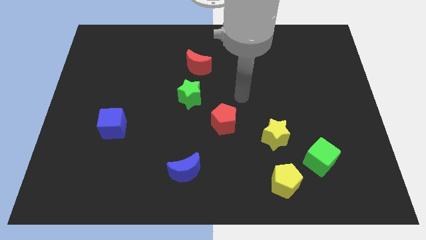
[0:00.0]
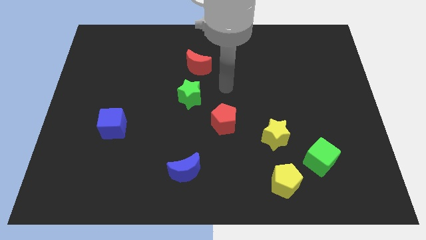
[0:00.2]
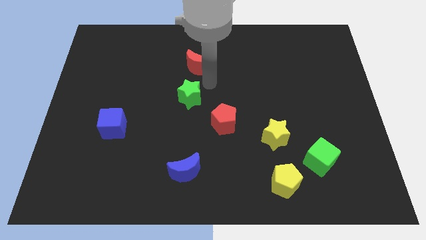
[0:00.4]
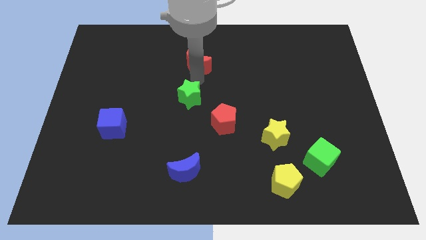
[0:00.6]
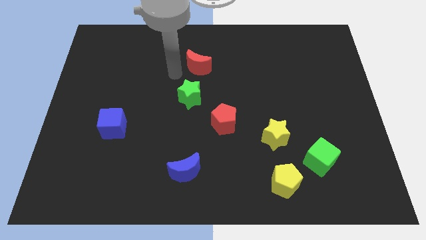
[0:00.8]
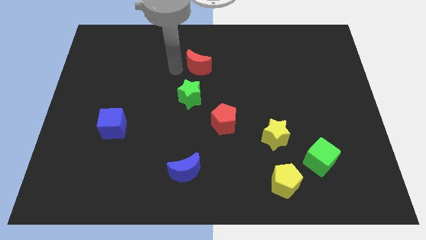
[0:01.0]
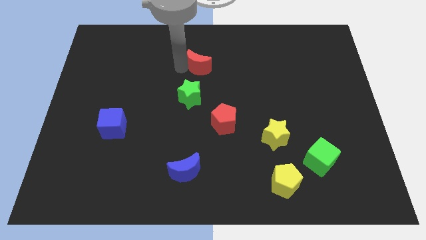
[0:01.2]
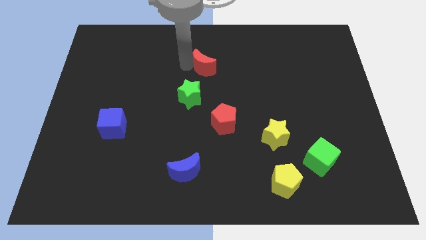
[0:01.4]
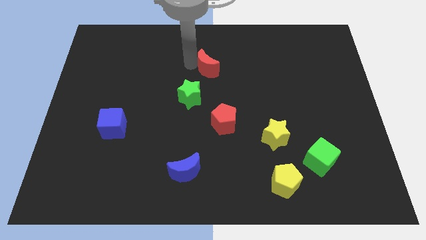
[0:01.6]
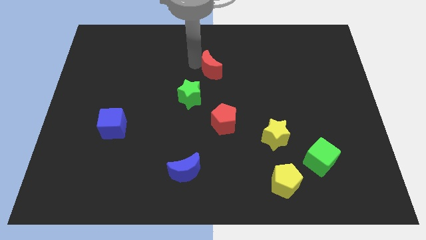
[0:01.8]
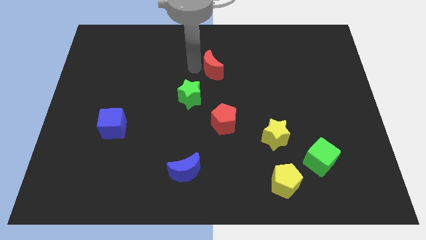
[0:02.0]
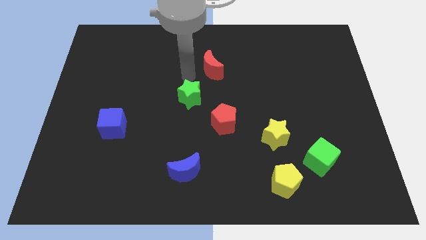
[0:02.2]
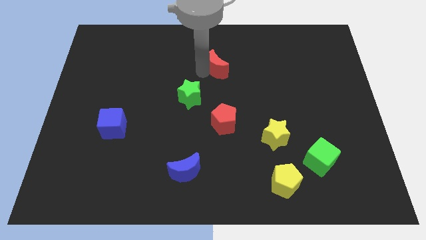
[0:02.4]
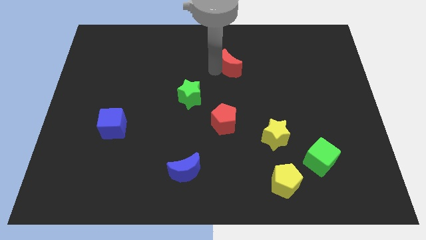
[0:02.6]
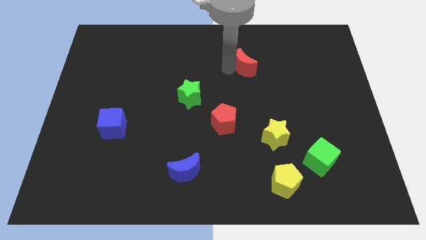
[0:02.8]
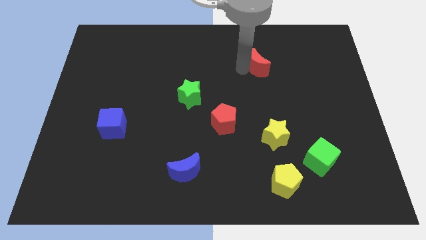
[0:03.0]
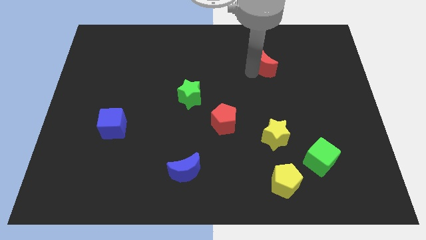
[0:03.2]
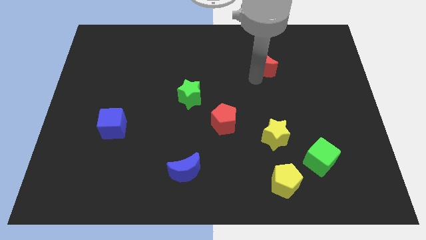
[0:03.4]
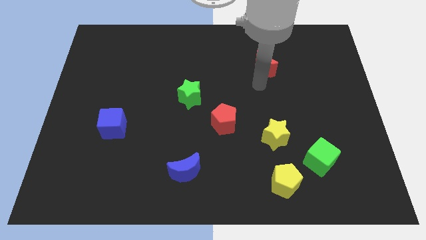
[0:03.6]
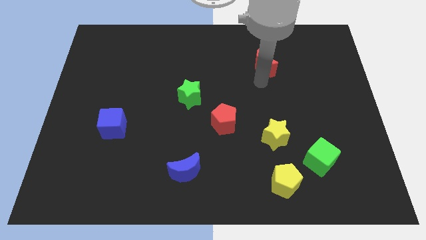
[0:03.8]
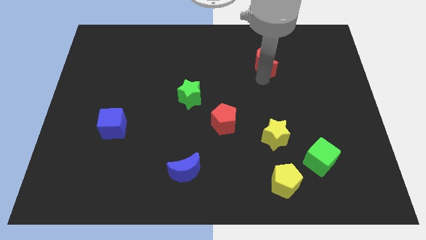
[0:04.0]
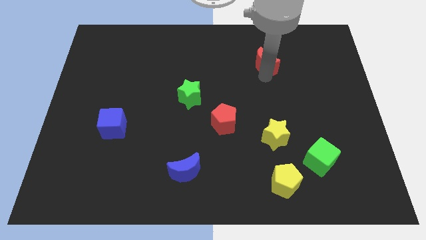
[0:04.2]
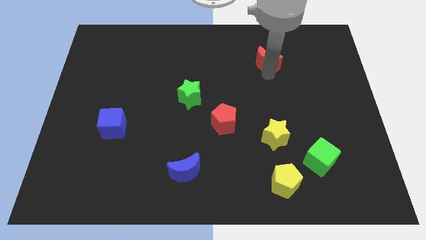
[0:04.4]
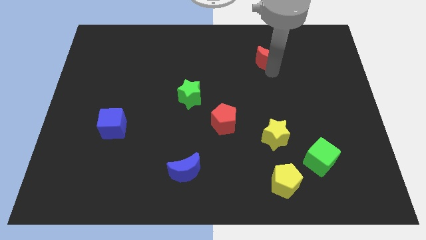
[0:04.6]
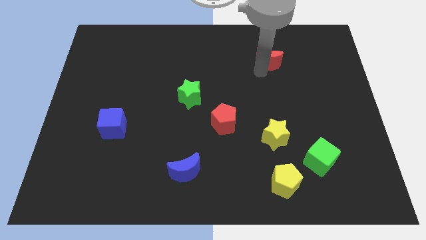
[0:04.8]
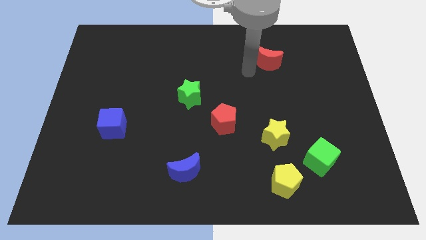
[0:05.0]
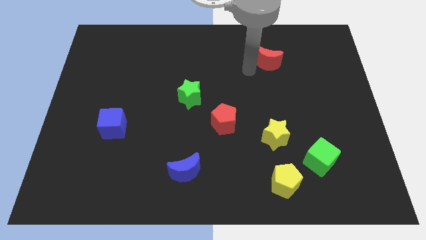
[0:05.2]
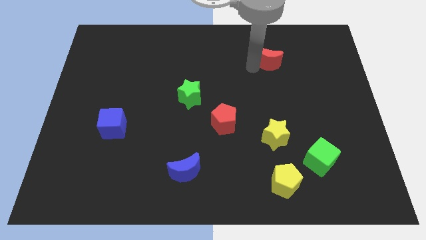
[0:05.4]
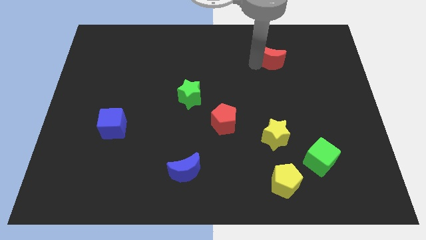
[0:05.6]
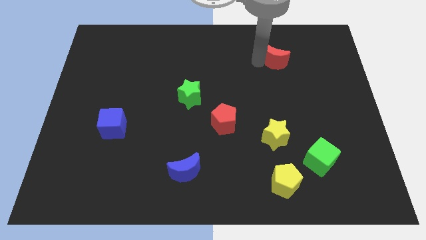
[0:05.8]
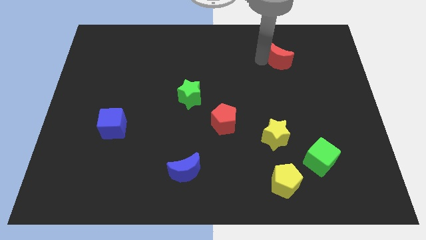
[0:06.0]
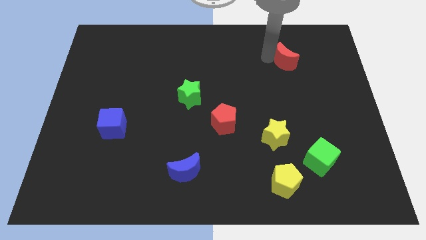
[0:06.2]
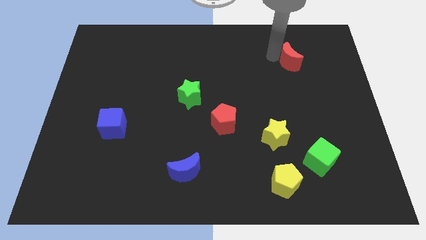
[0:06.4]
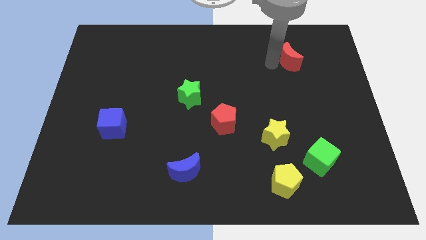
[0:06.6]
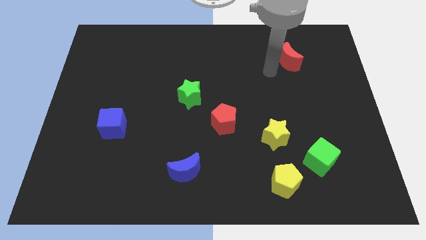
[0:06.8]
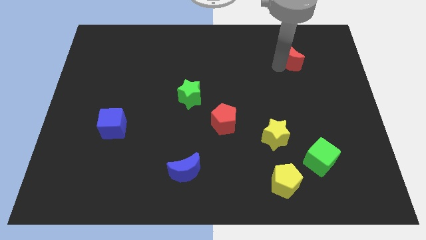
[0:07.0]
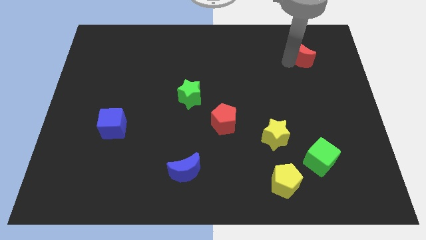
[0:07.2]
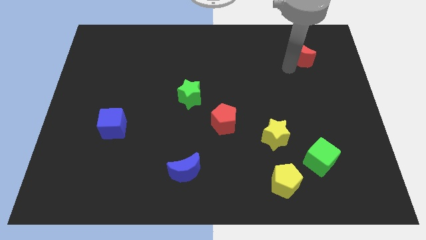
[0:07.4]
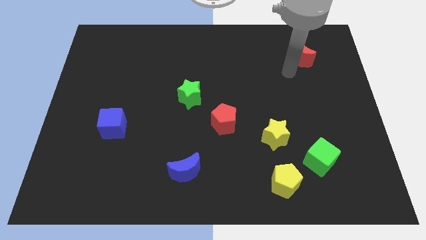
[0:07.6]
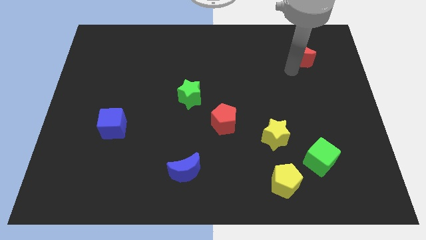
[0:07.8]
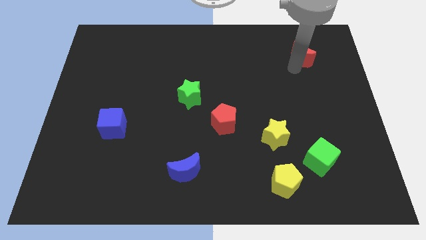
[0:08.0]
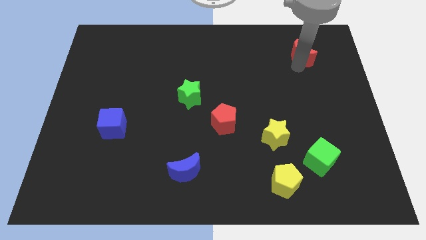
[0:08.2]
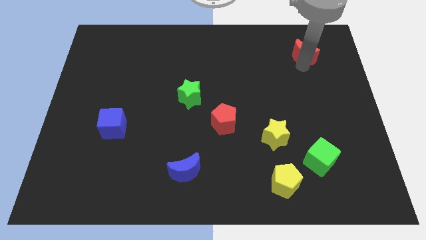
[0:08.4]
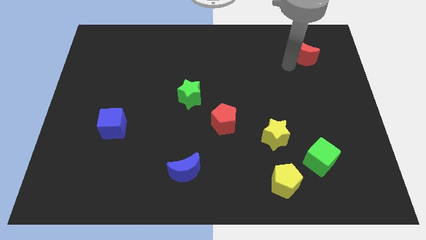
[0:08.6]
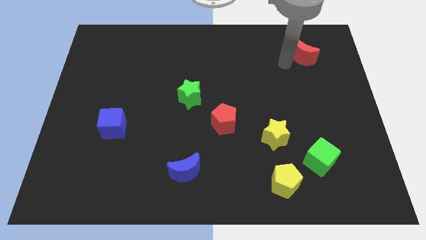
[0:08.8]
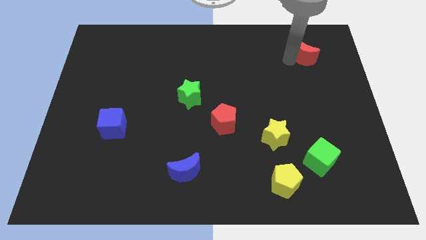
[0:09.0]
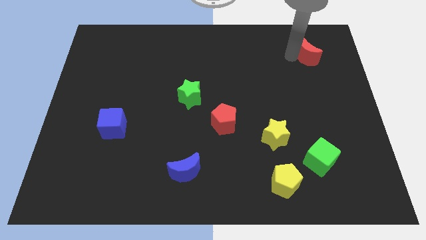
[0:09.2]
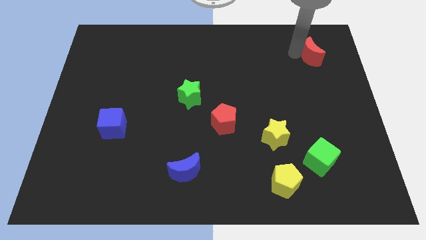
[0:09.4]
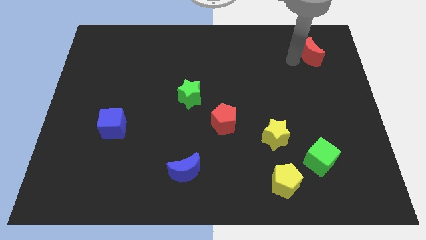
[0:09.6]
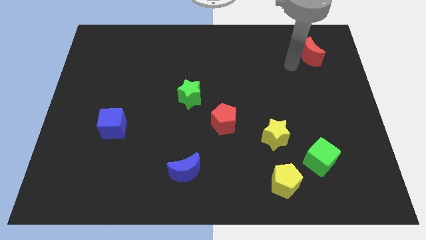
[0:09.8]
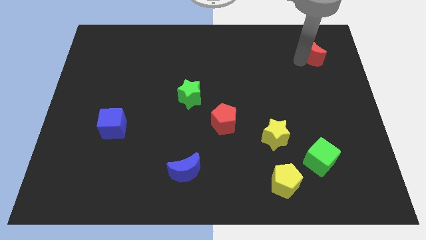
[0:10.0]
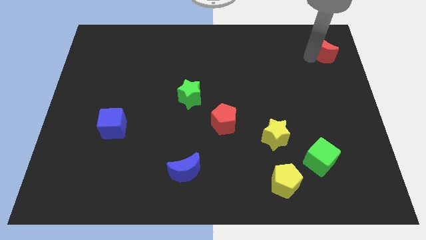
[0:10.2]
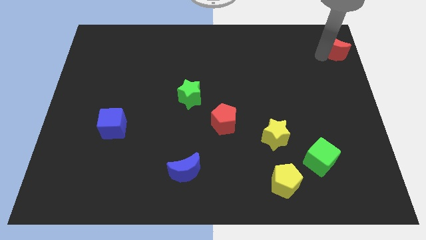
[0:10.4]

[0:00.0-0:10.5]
push the red moon to the upper right corner

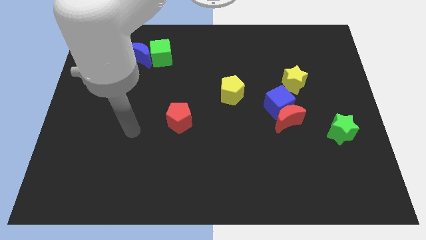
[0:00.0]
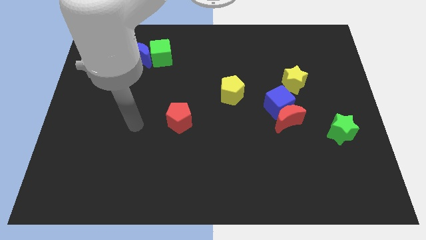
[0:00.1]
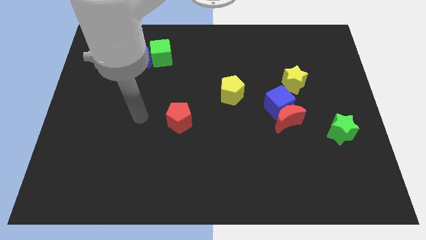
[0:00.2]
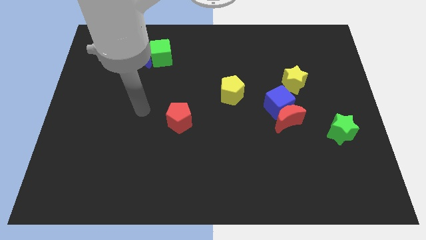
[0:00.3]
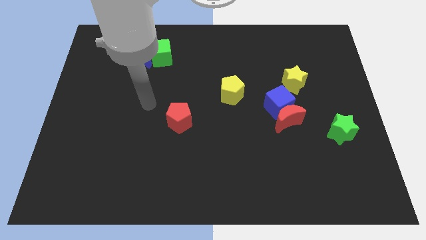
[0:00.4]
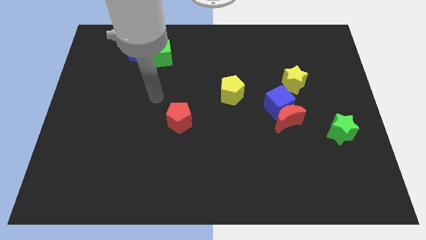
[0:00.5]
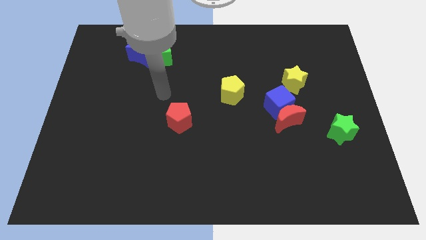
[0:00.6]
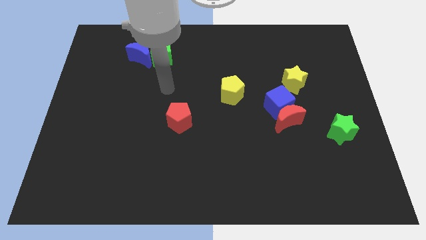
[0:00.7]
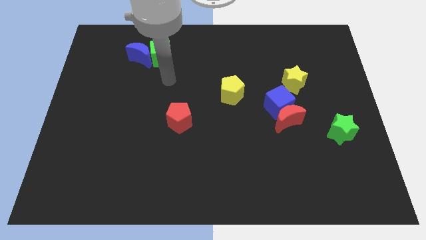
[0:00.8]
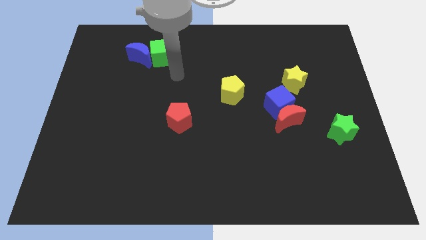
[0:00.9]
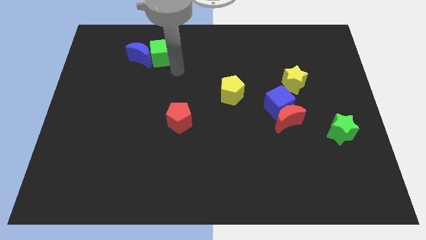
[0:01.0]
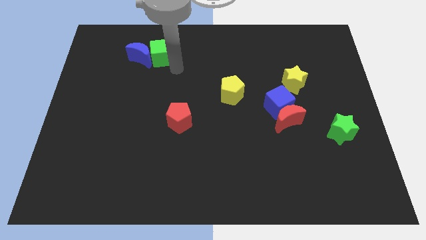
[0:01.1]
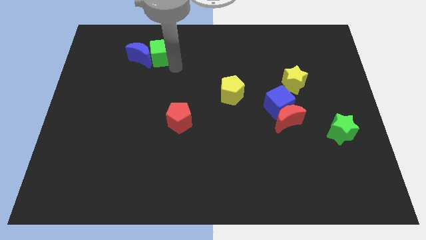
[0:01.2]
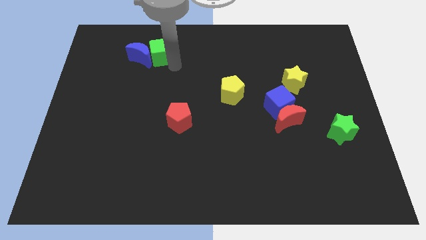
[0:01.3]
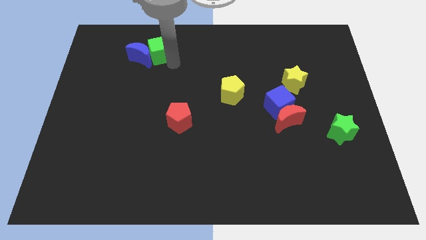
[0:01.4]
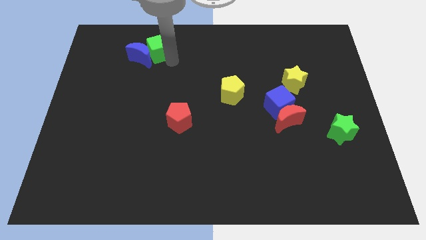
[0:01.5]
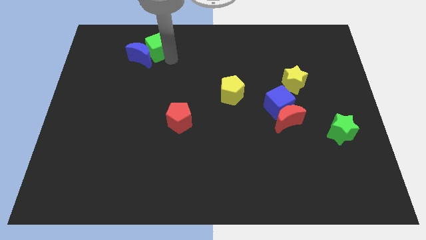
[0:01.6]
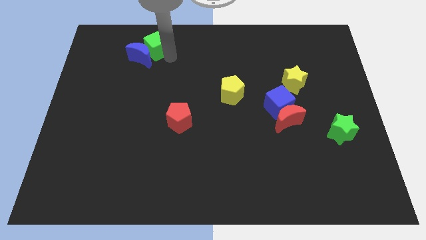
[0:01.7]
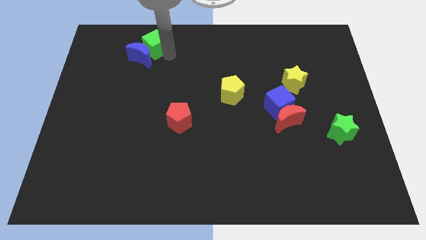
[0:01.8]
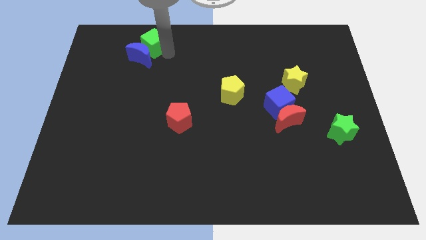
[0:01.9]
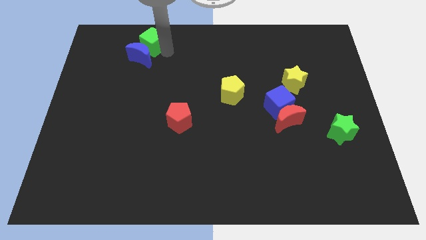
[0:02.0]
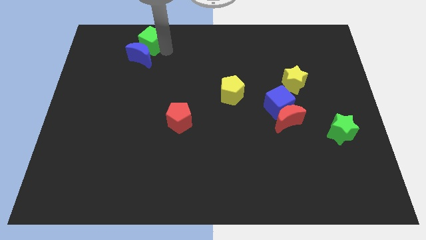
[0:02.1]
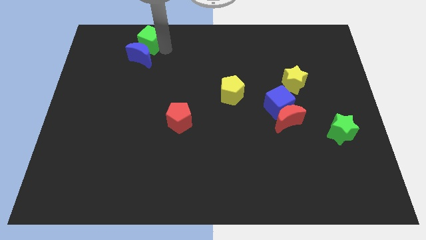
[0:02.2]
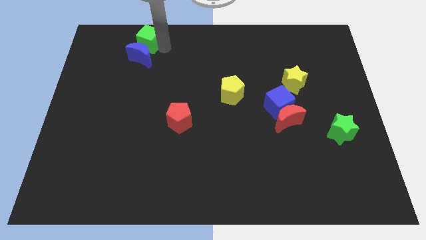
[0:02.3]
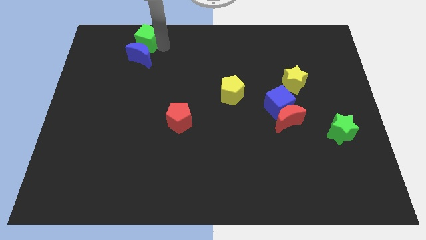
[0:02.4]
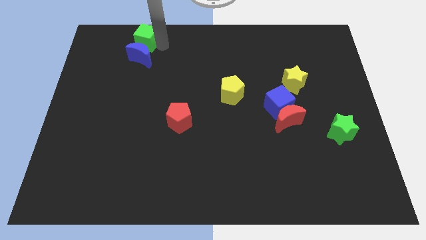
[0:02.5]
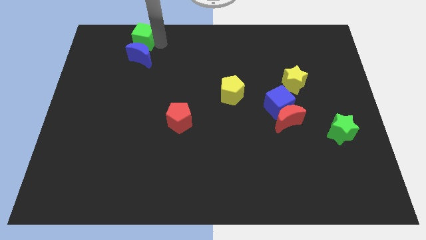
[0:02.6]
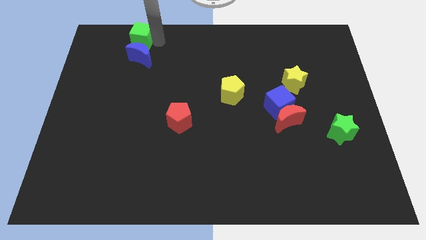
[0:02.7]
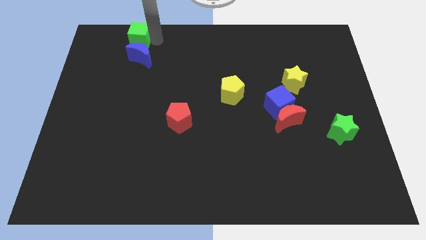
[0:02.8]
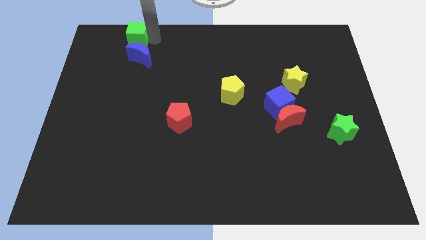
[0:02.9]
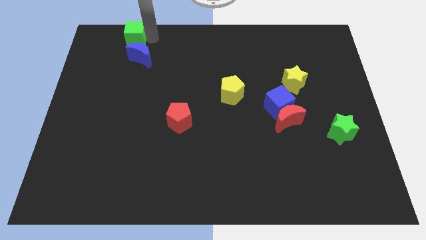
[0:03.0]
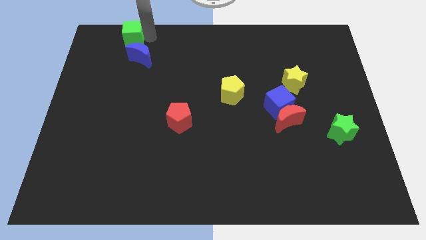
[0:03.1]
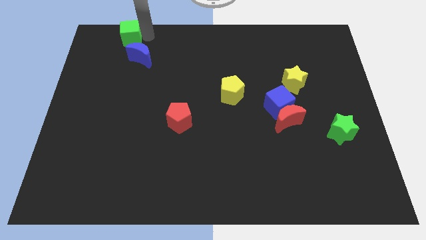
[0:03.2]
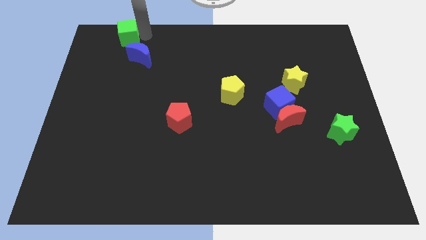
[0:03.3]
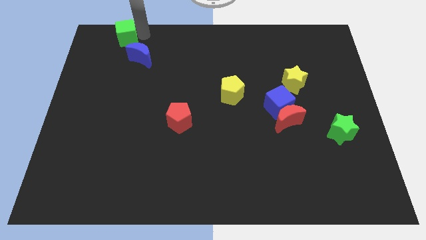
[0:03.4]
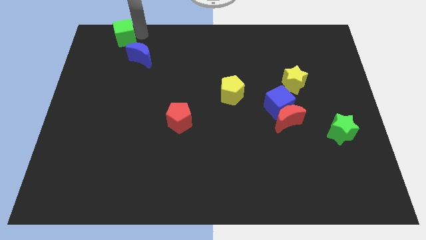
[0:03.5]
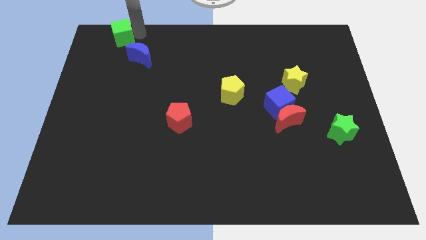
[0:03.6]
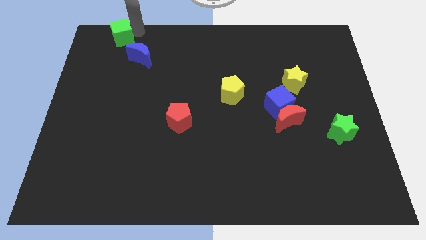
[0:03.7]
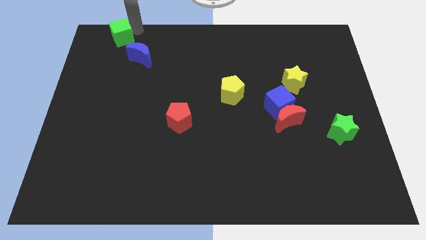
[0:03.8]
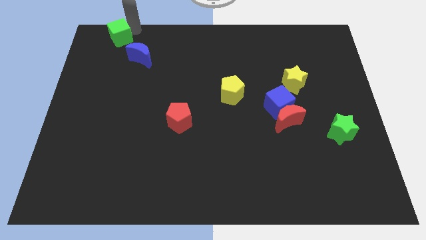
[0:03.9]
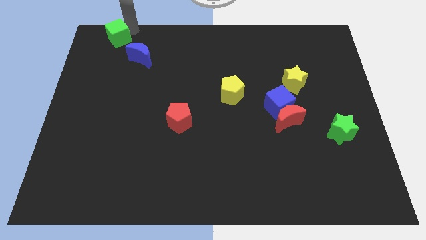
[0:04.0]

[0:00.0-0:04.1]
slide the green cube to the top left corner
